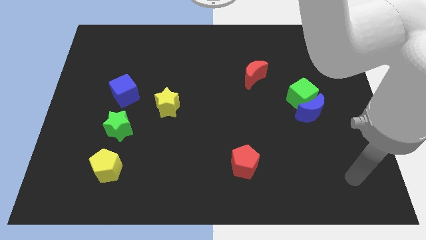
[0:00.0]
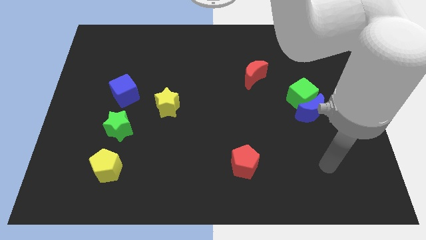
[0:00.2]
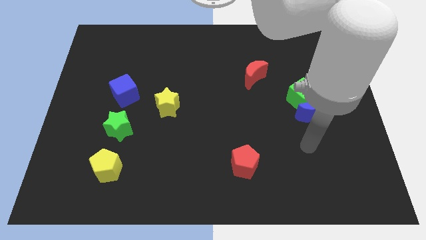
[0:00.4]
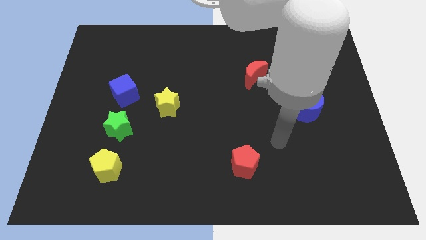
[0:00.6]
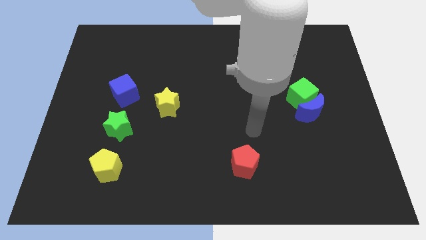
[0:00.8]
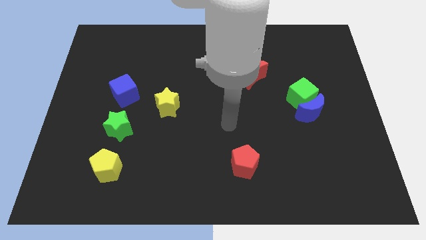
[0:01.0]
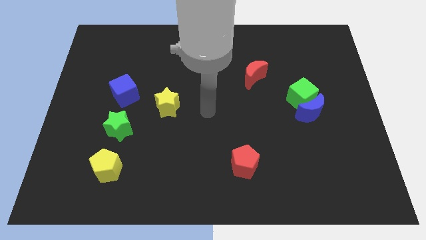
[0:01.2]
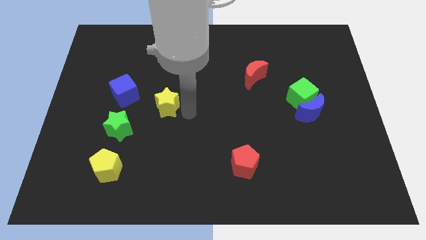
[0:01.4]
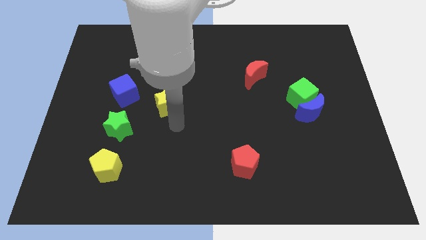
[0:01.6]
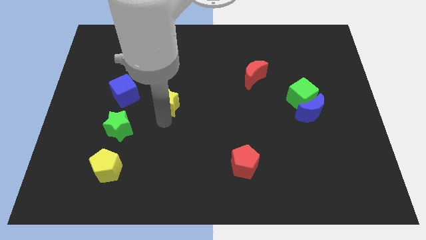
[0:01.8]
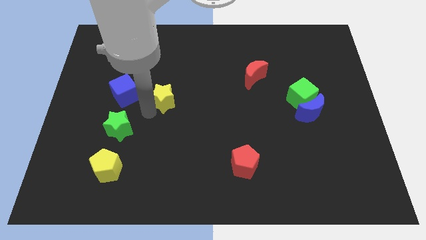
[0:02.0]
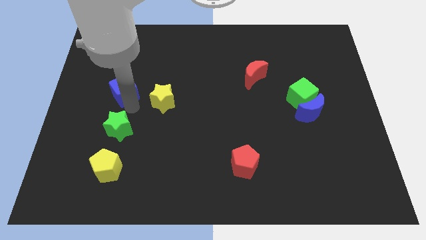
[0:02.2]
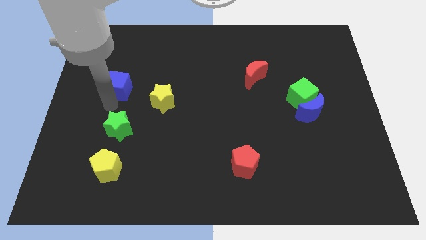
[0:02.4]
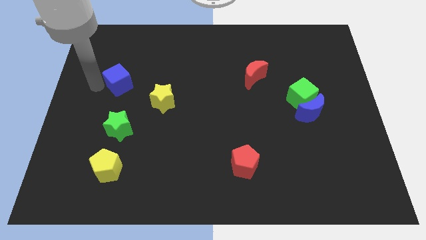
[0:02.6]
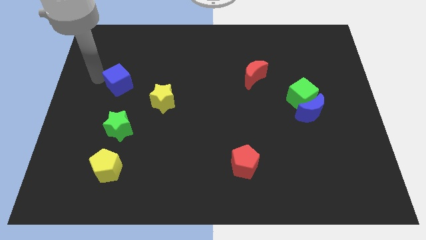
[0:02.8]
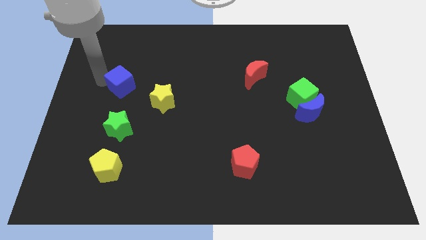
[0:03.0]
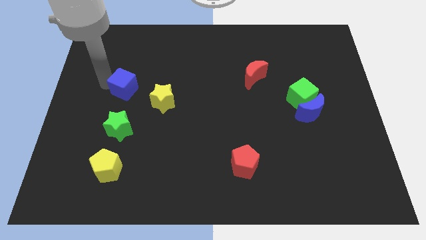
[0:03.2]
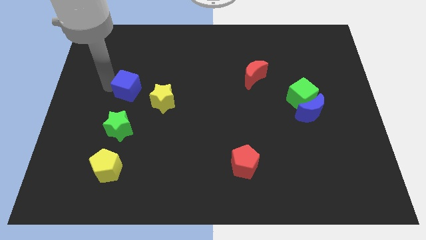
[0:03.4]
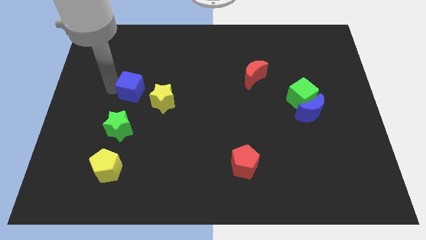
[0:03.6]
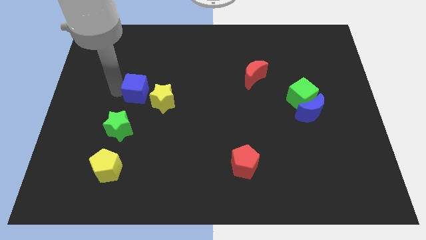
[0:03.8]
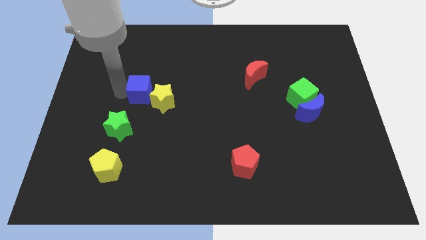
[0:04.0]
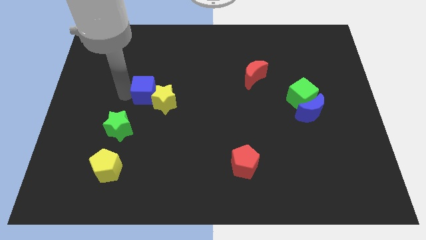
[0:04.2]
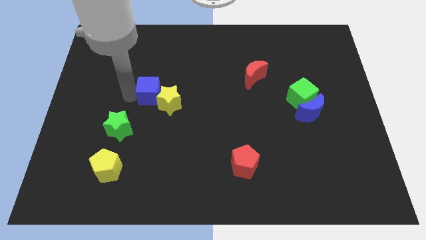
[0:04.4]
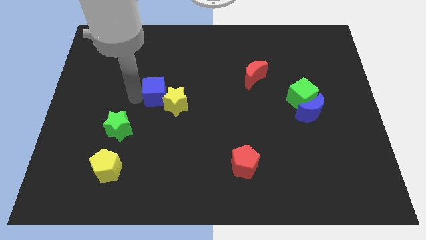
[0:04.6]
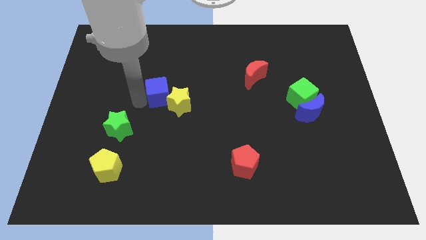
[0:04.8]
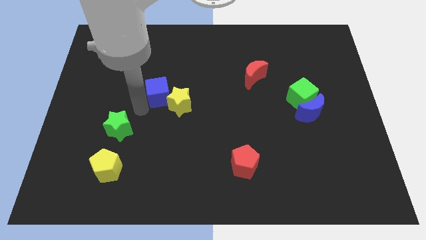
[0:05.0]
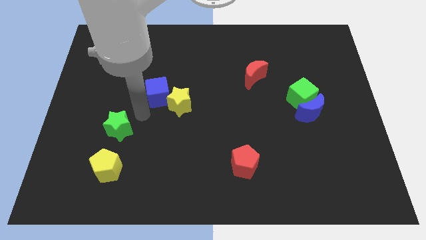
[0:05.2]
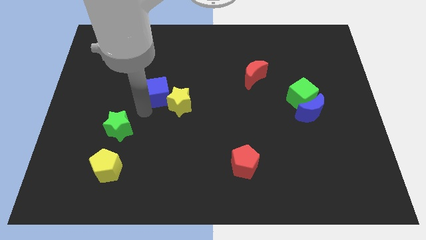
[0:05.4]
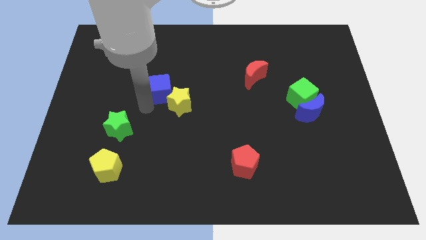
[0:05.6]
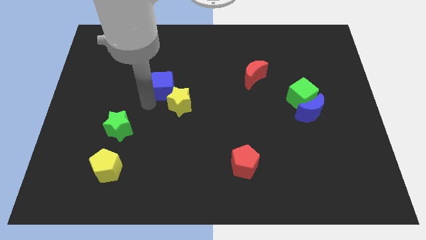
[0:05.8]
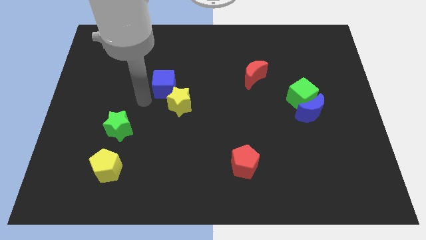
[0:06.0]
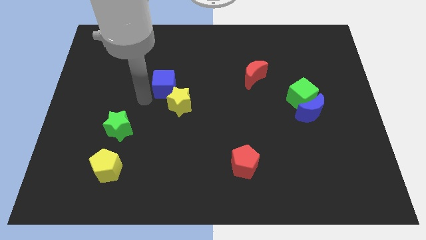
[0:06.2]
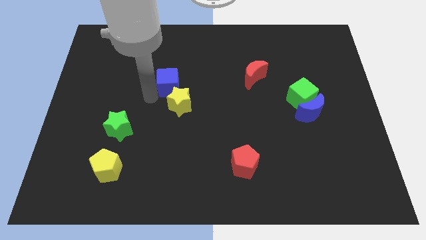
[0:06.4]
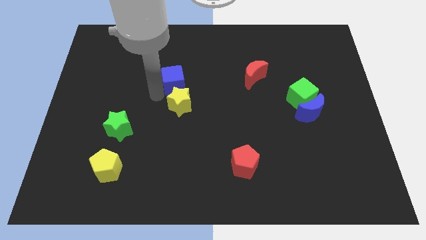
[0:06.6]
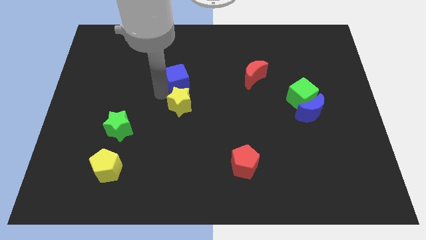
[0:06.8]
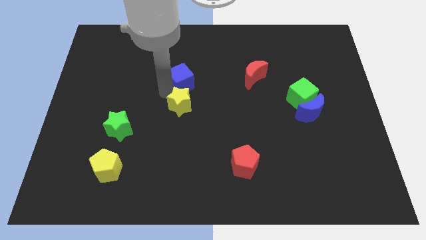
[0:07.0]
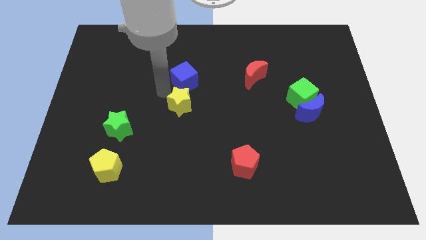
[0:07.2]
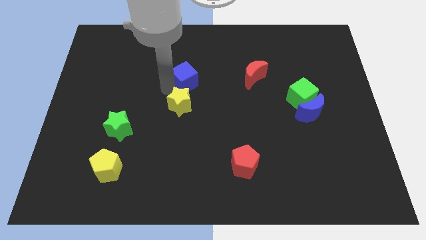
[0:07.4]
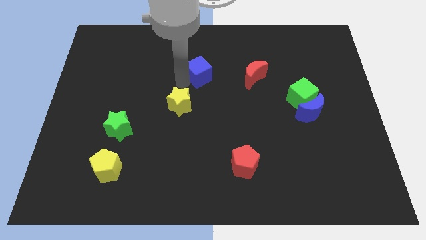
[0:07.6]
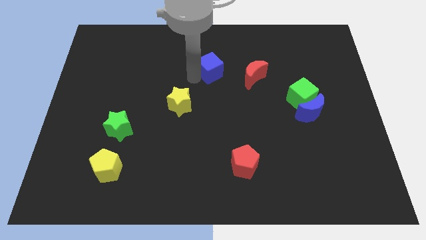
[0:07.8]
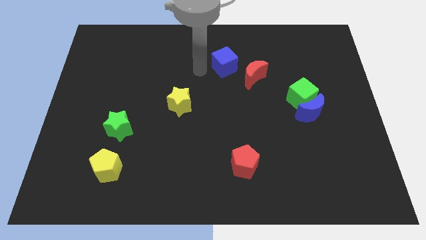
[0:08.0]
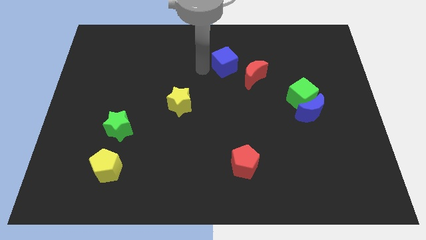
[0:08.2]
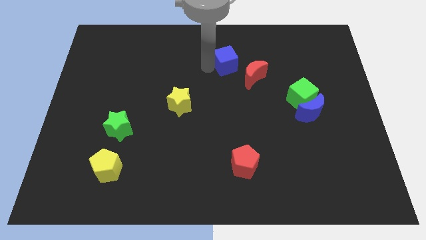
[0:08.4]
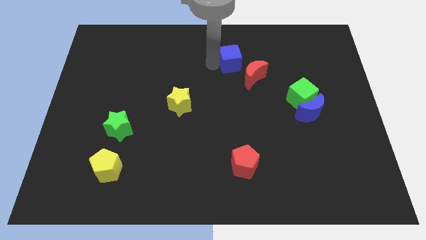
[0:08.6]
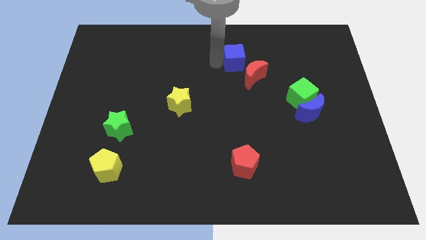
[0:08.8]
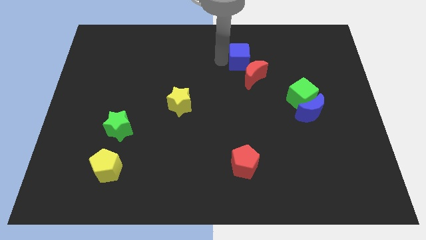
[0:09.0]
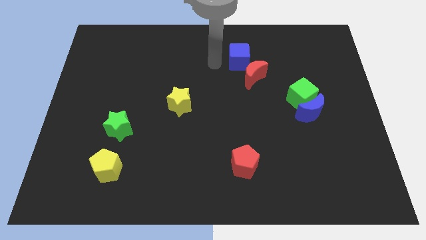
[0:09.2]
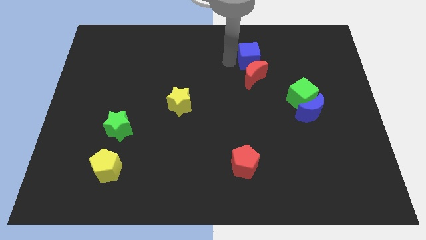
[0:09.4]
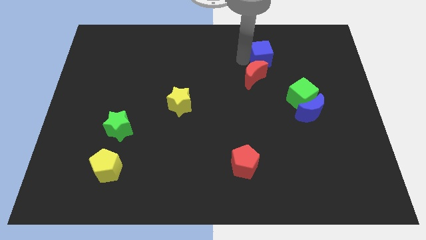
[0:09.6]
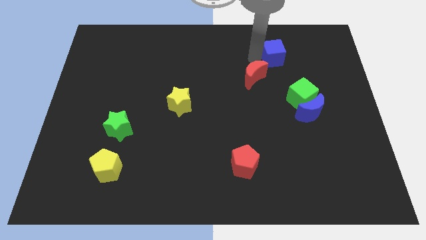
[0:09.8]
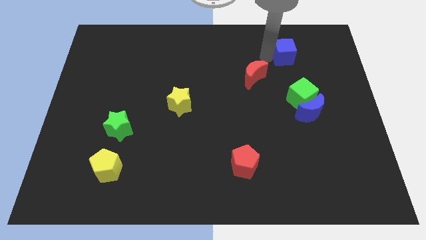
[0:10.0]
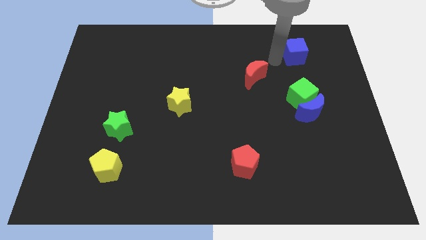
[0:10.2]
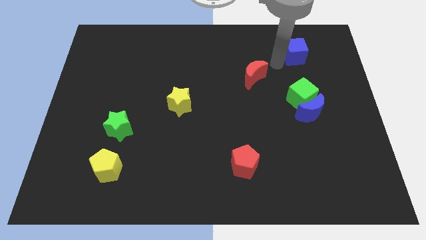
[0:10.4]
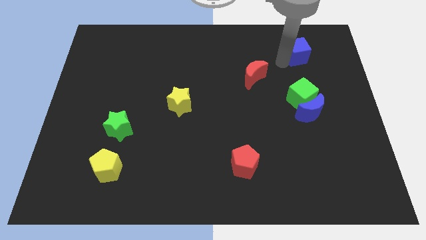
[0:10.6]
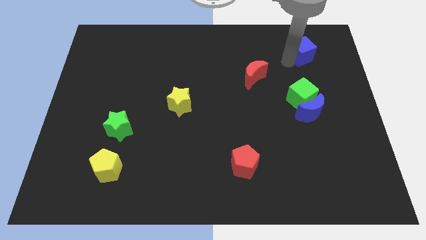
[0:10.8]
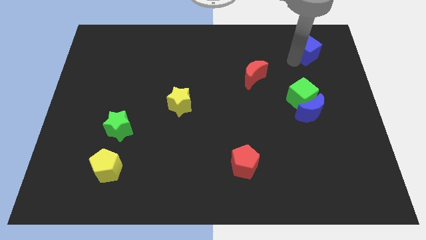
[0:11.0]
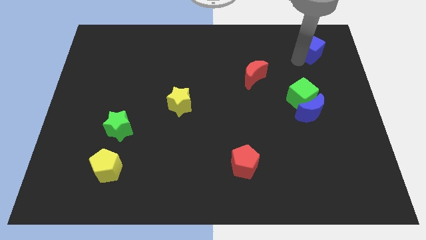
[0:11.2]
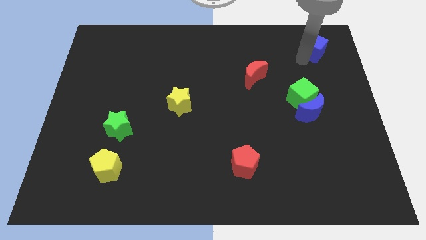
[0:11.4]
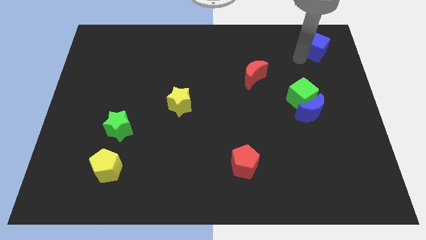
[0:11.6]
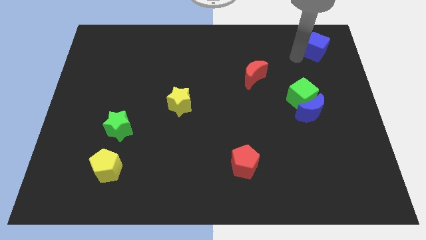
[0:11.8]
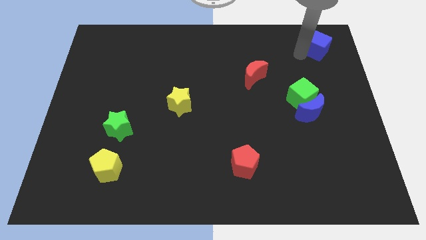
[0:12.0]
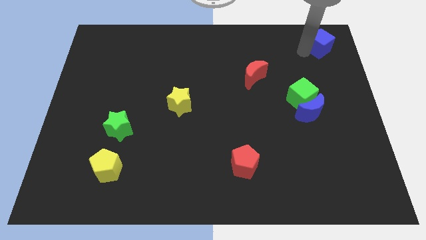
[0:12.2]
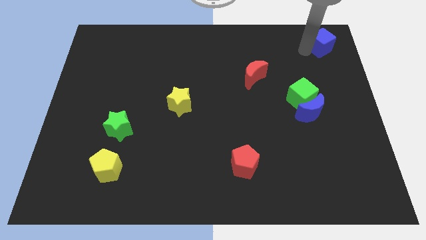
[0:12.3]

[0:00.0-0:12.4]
push the blue cube to the top right
